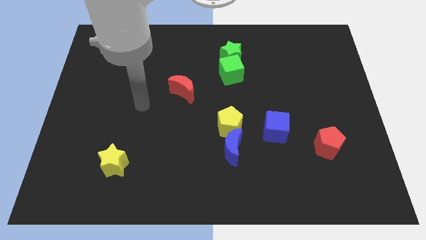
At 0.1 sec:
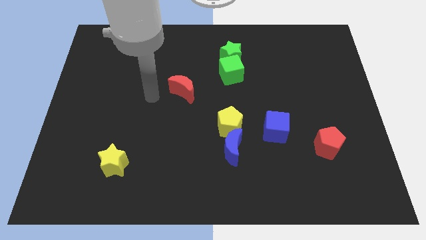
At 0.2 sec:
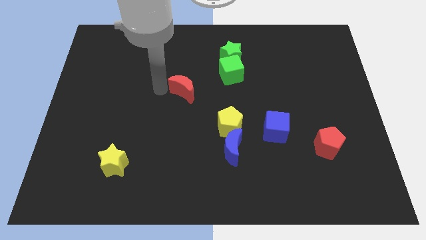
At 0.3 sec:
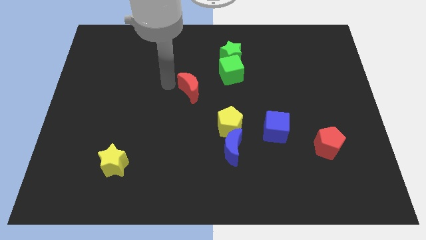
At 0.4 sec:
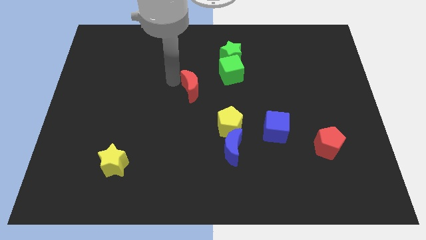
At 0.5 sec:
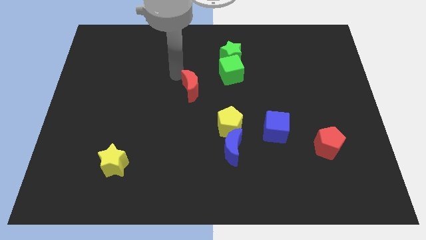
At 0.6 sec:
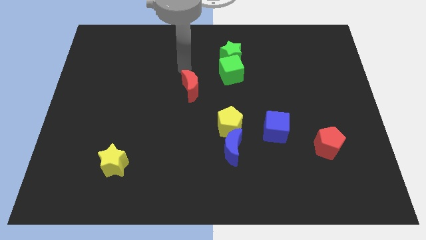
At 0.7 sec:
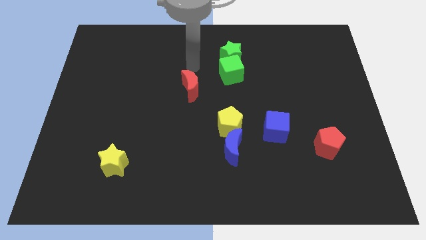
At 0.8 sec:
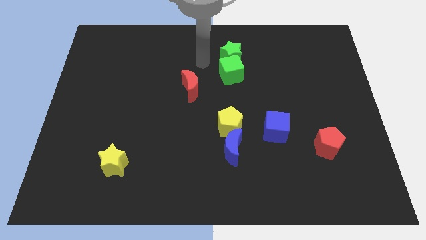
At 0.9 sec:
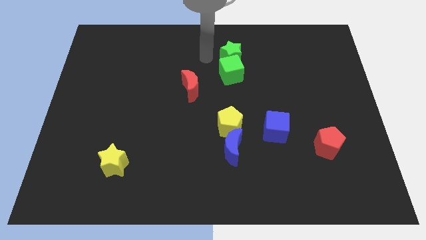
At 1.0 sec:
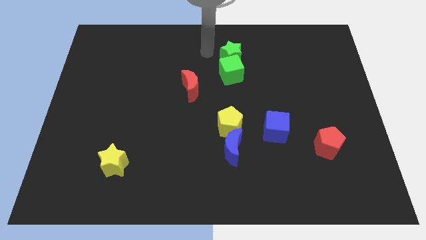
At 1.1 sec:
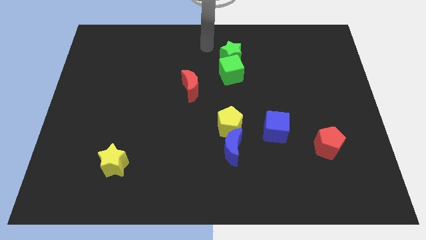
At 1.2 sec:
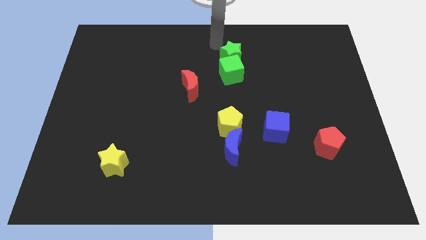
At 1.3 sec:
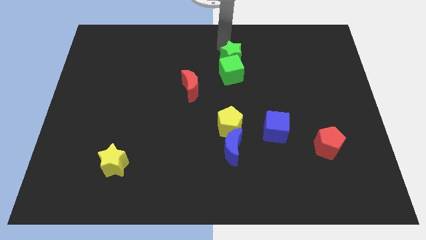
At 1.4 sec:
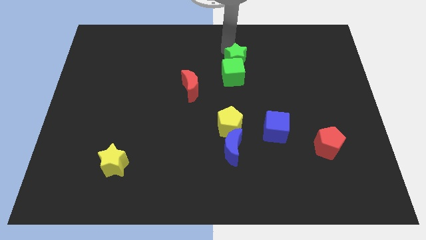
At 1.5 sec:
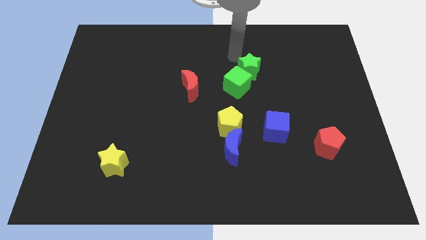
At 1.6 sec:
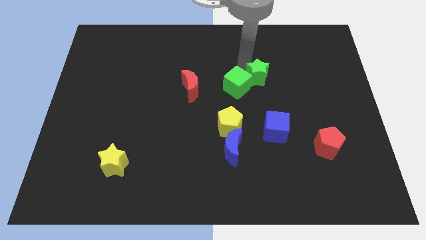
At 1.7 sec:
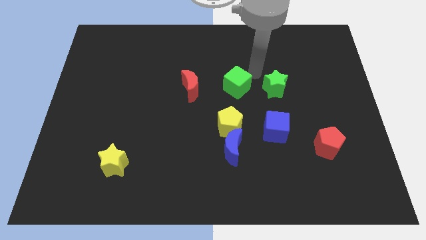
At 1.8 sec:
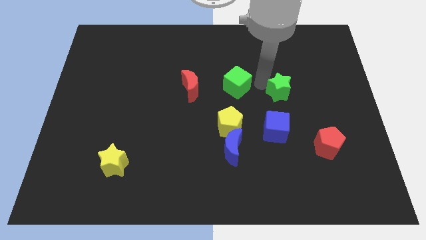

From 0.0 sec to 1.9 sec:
move the green cube away from the green star

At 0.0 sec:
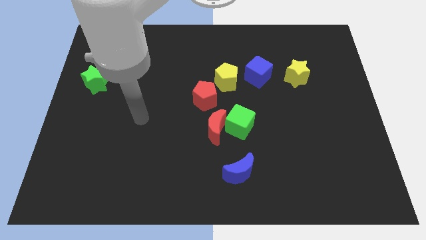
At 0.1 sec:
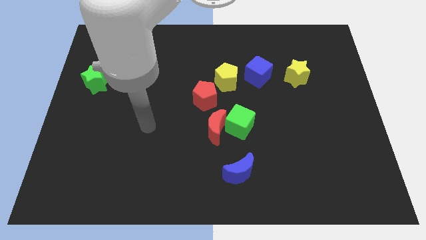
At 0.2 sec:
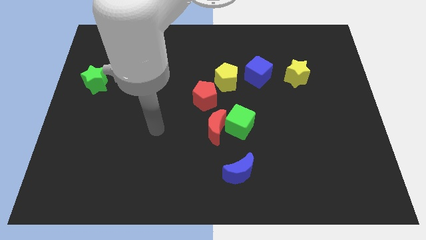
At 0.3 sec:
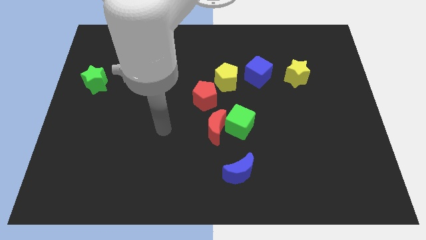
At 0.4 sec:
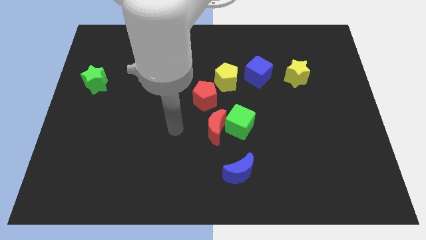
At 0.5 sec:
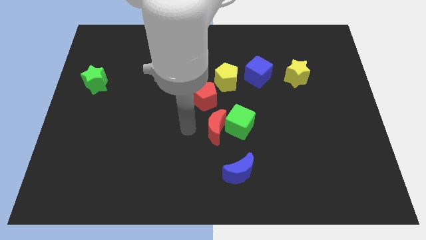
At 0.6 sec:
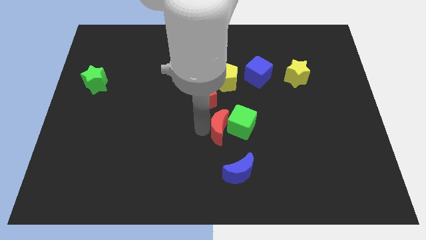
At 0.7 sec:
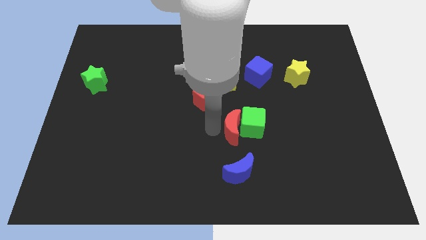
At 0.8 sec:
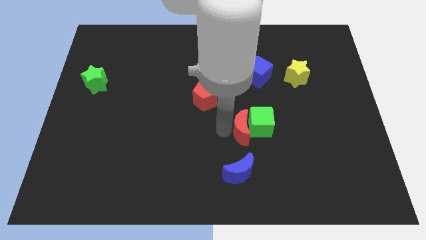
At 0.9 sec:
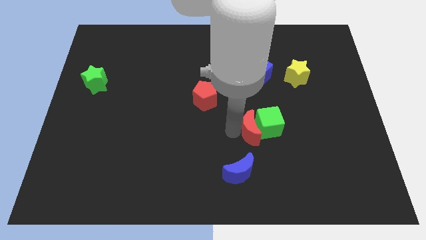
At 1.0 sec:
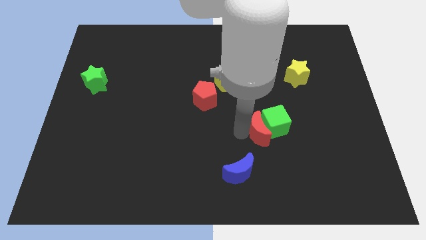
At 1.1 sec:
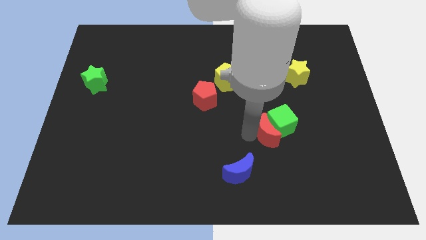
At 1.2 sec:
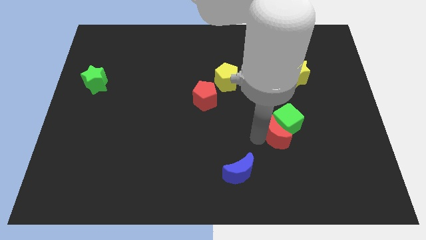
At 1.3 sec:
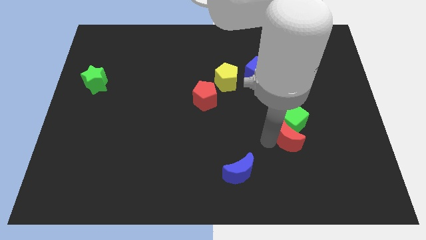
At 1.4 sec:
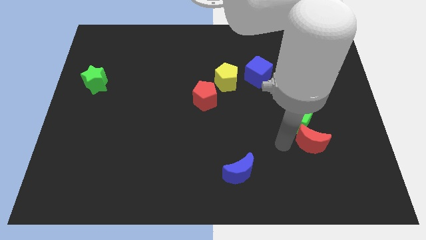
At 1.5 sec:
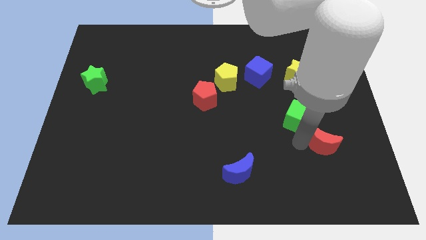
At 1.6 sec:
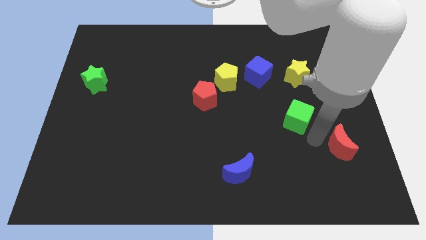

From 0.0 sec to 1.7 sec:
separate the green cube from the red moon

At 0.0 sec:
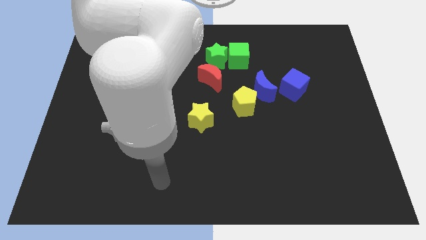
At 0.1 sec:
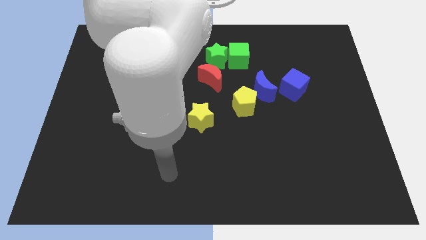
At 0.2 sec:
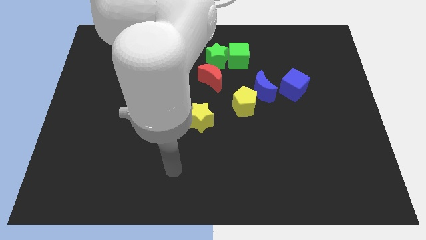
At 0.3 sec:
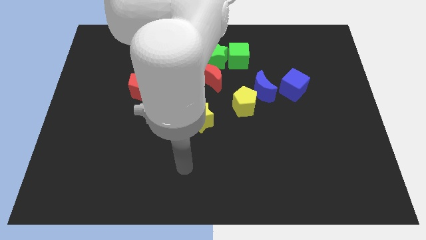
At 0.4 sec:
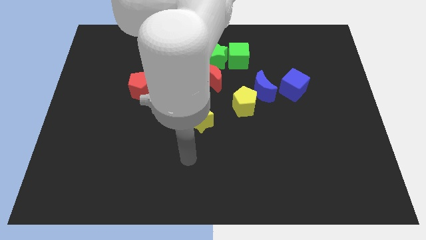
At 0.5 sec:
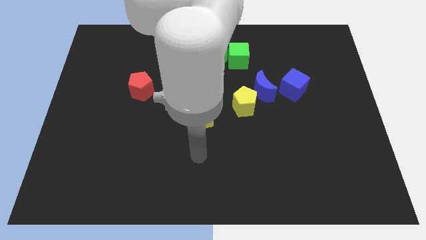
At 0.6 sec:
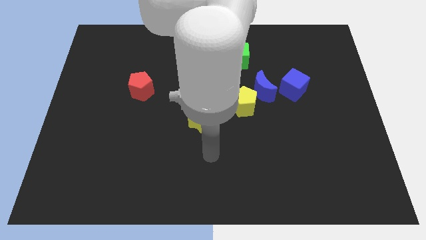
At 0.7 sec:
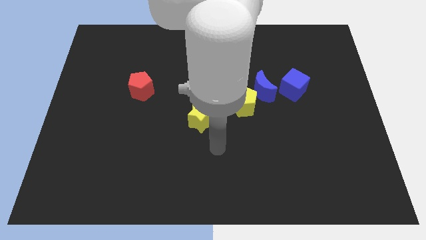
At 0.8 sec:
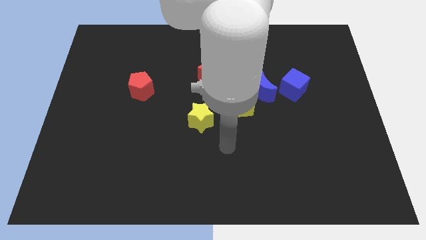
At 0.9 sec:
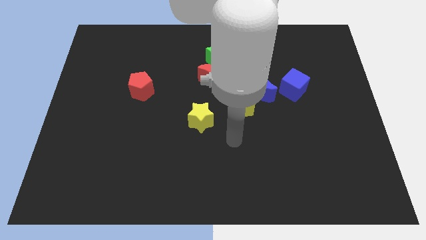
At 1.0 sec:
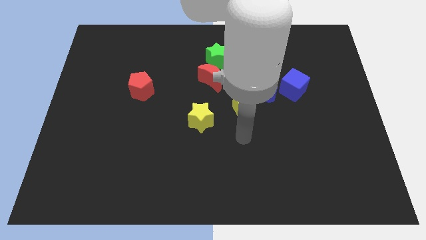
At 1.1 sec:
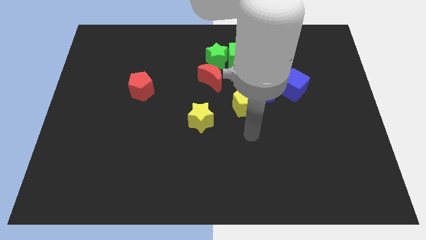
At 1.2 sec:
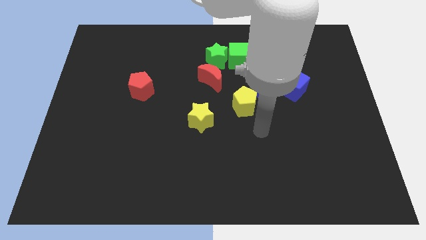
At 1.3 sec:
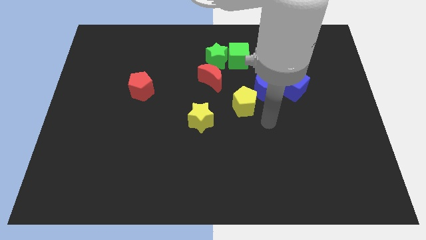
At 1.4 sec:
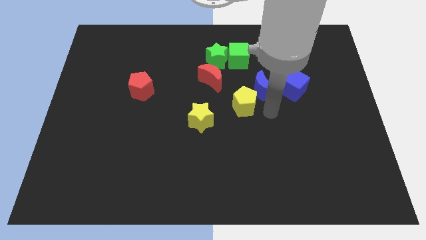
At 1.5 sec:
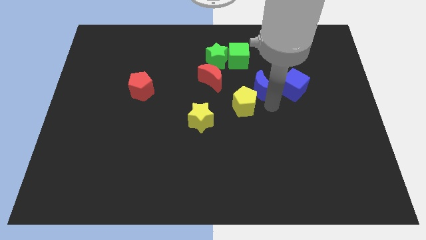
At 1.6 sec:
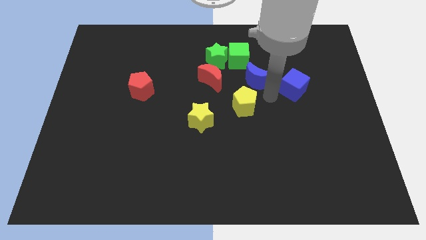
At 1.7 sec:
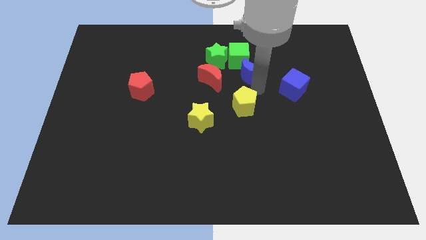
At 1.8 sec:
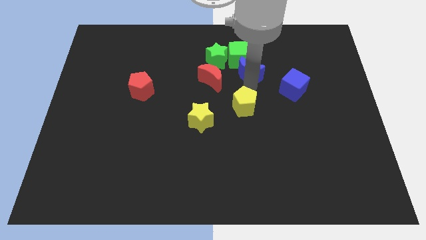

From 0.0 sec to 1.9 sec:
move the yellow pentagon away from the blue moon

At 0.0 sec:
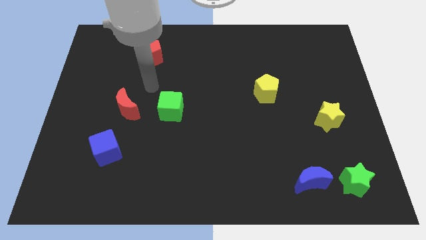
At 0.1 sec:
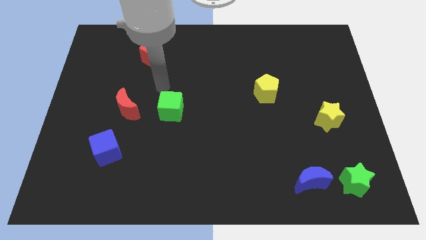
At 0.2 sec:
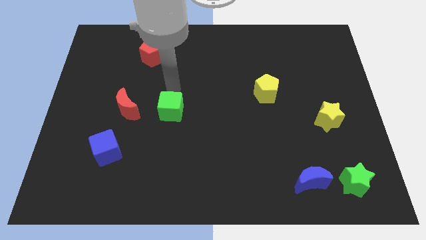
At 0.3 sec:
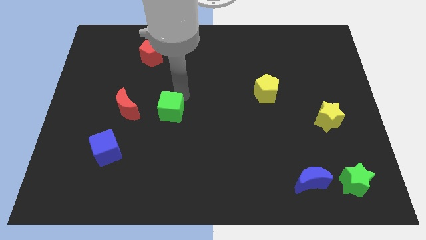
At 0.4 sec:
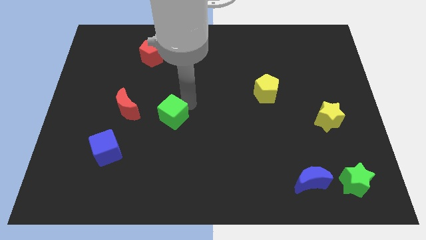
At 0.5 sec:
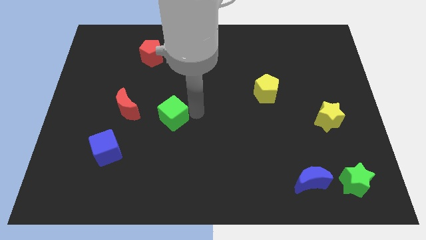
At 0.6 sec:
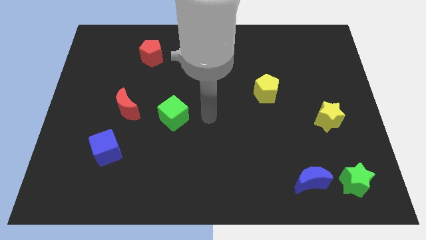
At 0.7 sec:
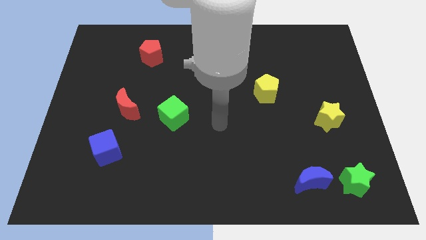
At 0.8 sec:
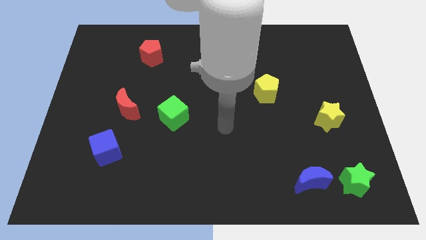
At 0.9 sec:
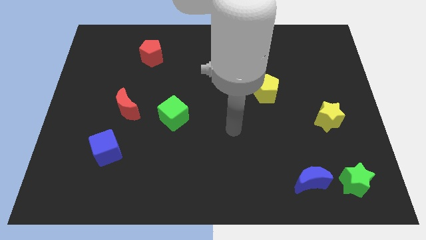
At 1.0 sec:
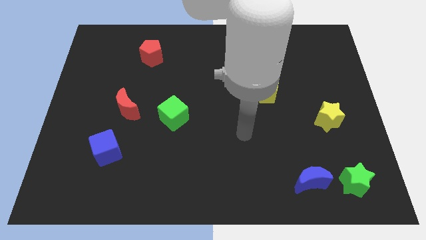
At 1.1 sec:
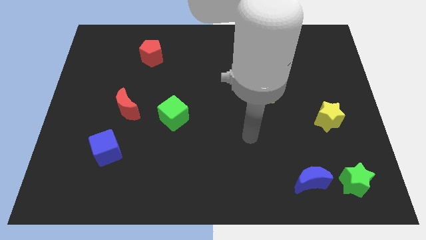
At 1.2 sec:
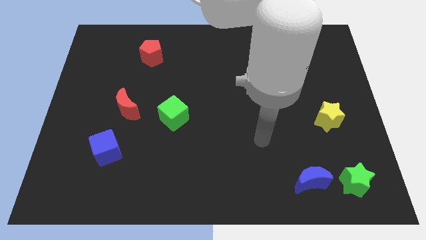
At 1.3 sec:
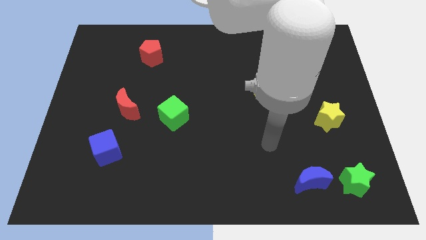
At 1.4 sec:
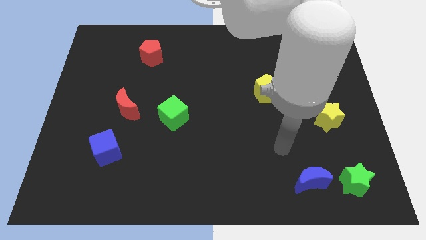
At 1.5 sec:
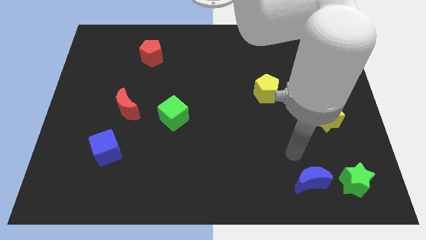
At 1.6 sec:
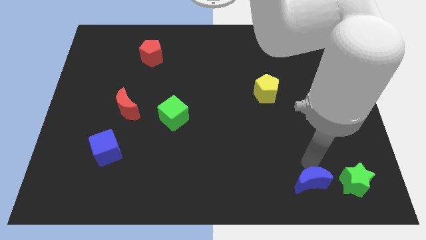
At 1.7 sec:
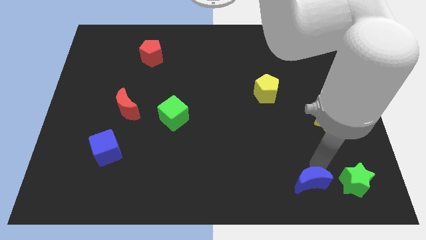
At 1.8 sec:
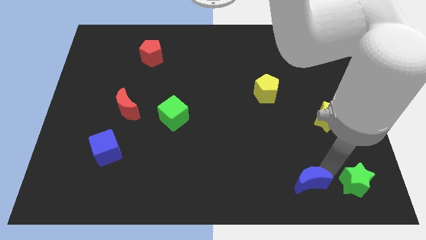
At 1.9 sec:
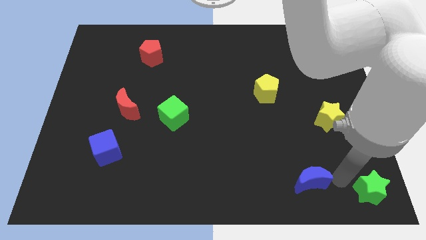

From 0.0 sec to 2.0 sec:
pull the blue moon apart from the green star

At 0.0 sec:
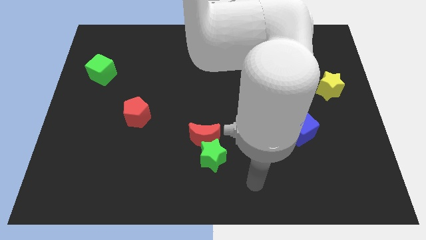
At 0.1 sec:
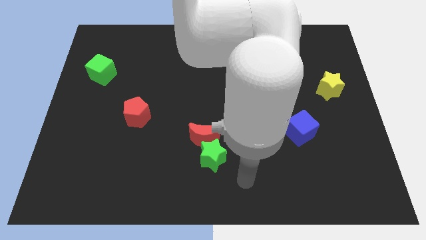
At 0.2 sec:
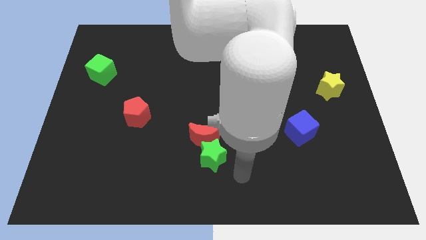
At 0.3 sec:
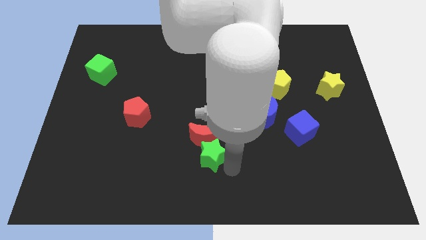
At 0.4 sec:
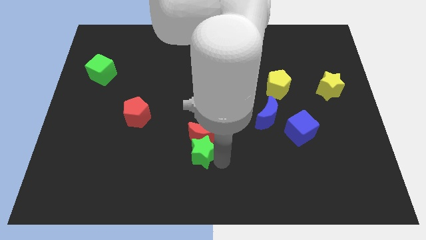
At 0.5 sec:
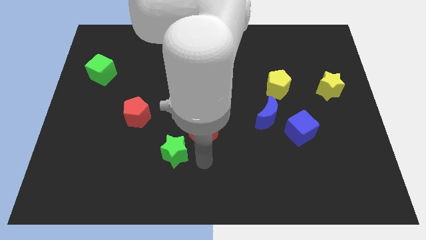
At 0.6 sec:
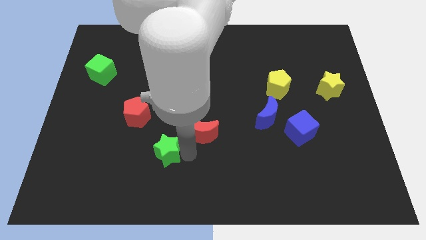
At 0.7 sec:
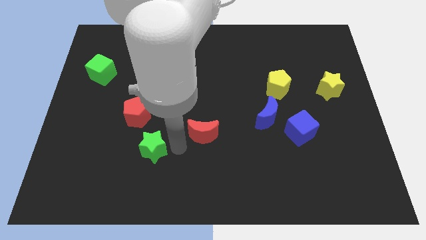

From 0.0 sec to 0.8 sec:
move the red moon away from the green star

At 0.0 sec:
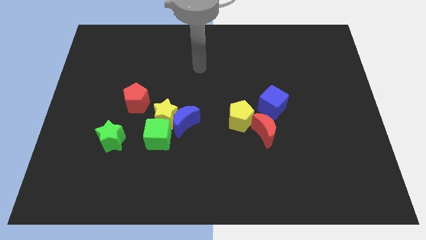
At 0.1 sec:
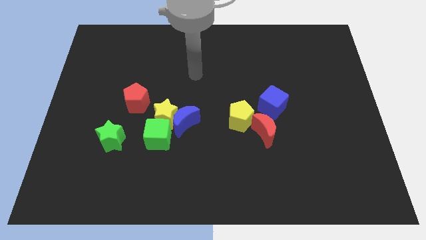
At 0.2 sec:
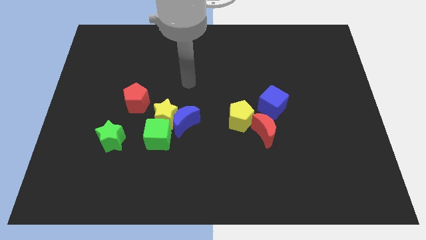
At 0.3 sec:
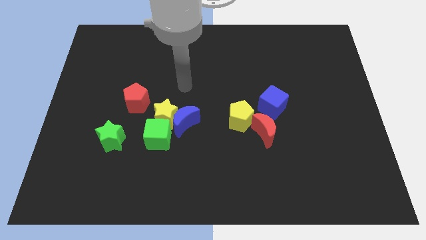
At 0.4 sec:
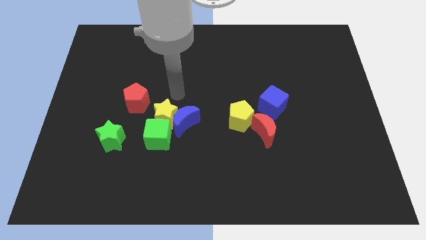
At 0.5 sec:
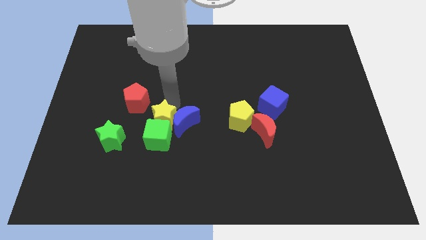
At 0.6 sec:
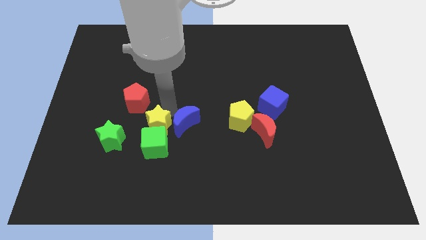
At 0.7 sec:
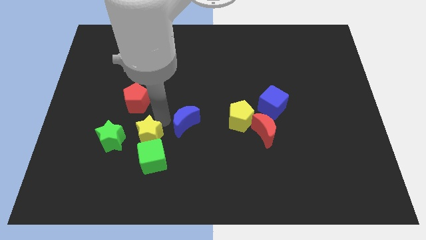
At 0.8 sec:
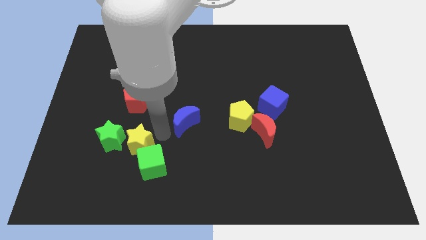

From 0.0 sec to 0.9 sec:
separate the blue moon from the yellow star and green cube
